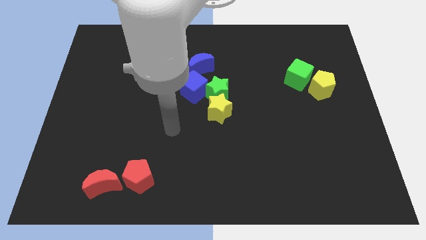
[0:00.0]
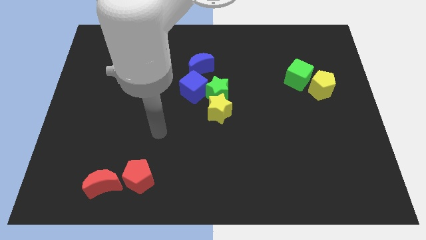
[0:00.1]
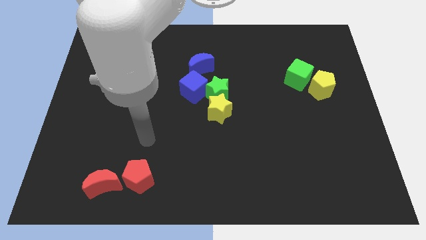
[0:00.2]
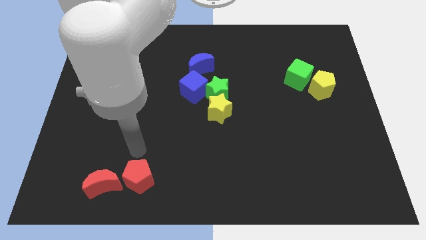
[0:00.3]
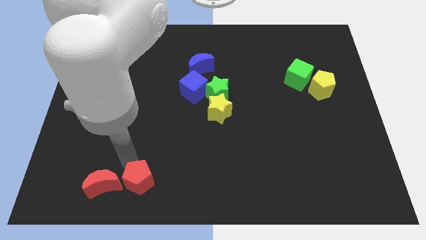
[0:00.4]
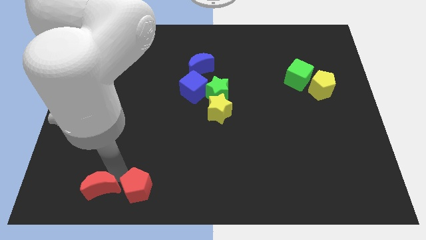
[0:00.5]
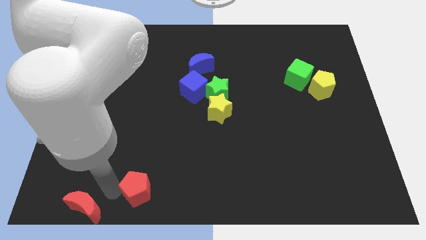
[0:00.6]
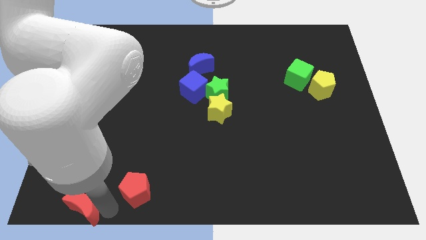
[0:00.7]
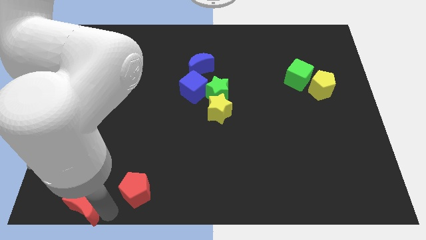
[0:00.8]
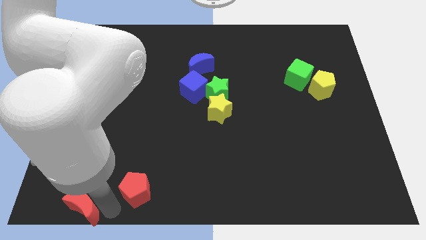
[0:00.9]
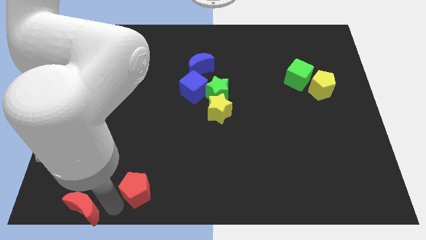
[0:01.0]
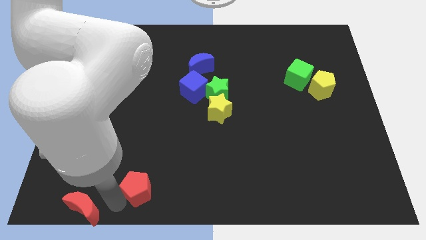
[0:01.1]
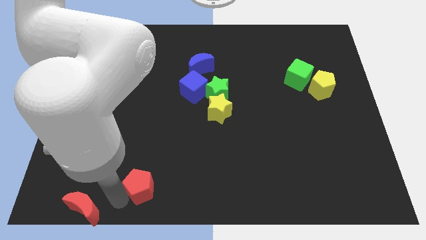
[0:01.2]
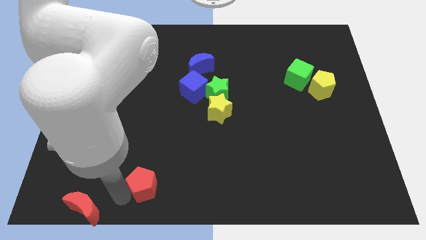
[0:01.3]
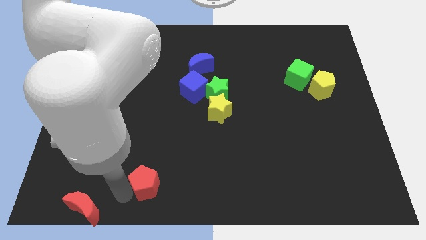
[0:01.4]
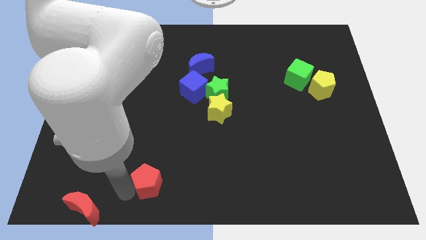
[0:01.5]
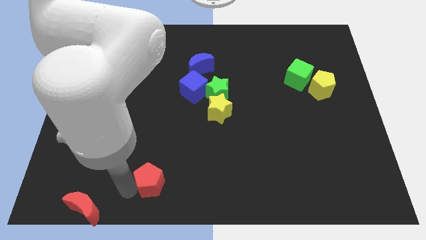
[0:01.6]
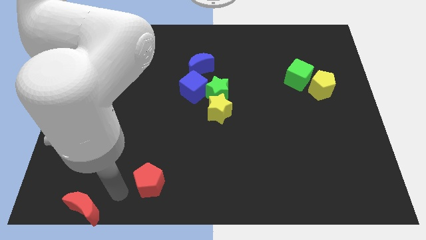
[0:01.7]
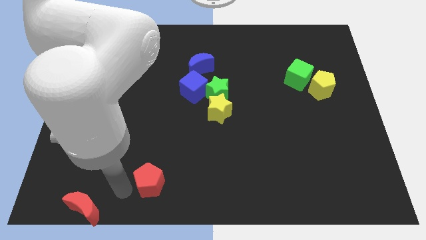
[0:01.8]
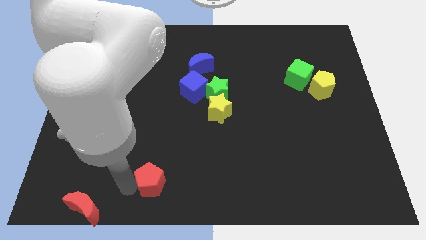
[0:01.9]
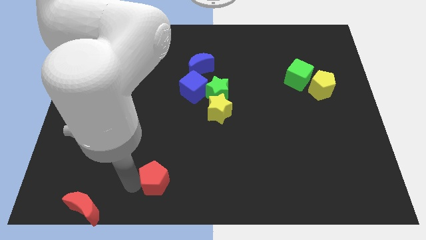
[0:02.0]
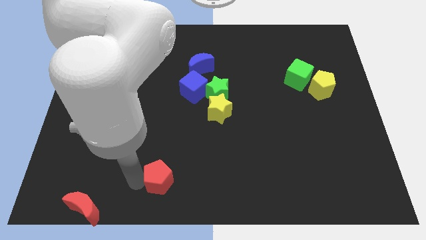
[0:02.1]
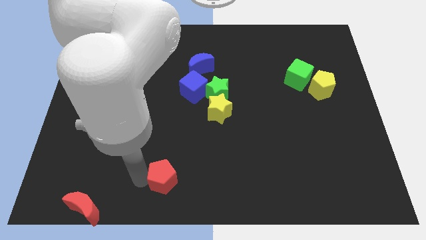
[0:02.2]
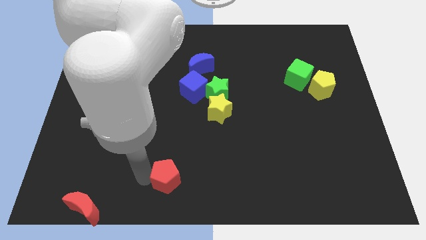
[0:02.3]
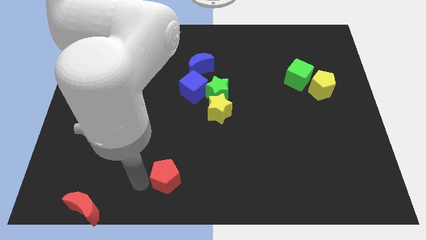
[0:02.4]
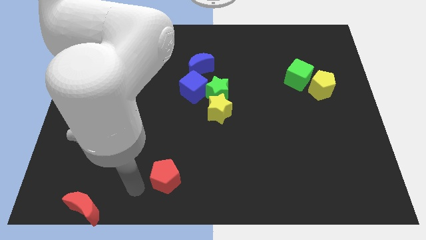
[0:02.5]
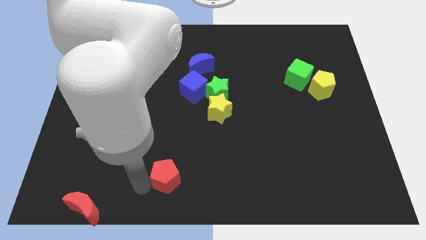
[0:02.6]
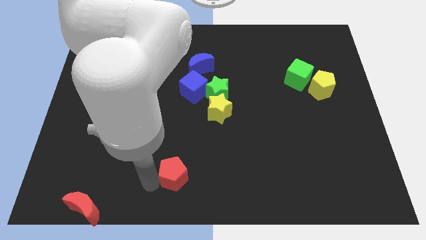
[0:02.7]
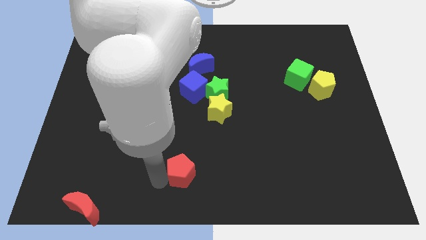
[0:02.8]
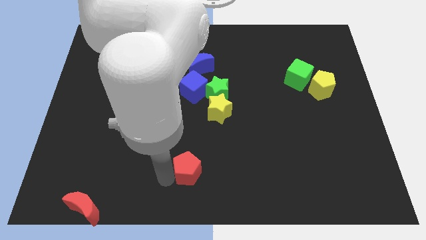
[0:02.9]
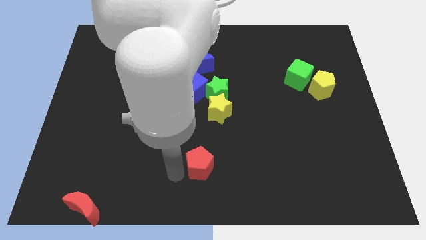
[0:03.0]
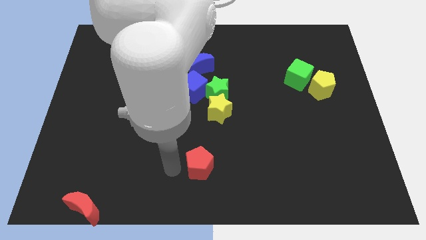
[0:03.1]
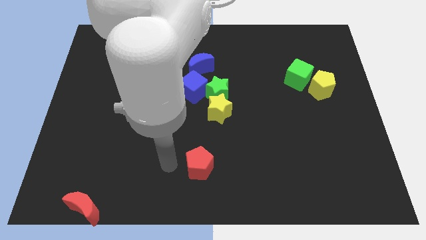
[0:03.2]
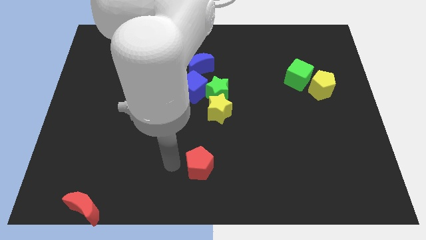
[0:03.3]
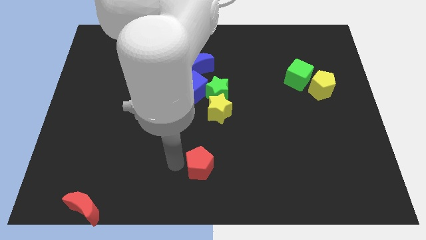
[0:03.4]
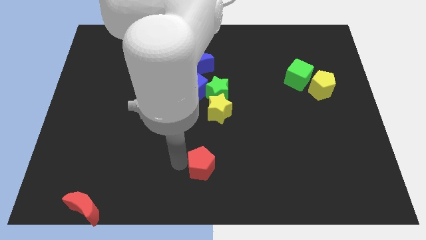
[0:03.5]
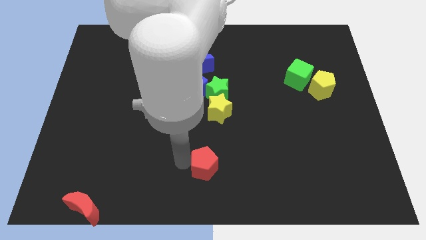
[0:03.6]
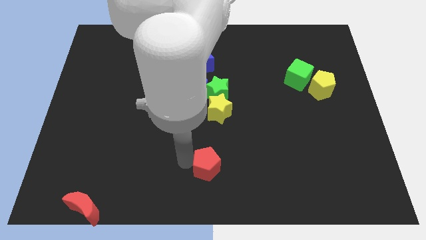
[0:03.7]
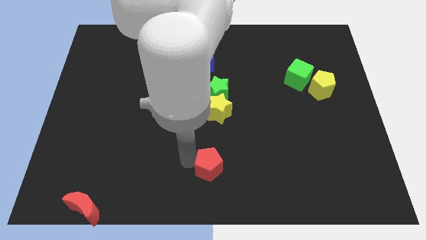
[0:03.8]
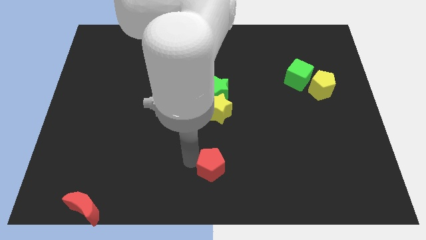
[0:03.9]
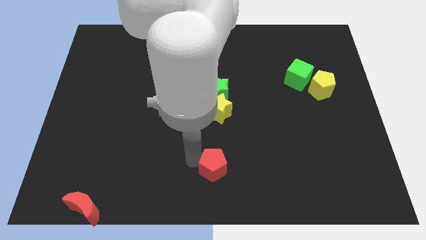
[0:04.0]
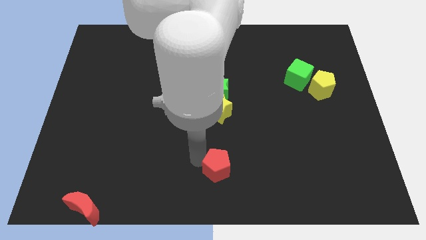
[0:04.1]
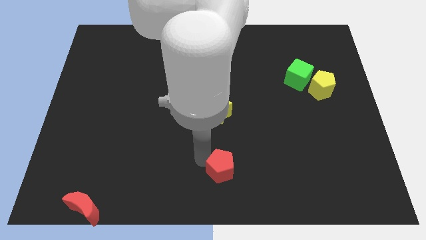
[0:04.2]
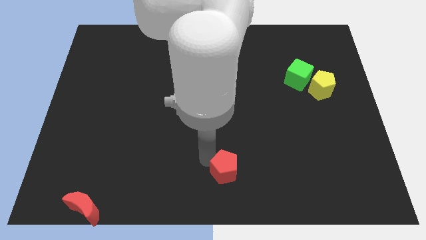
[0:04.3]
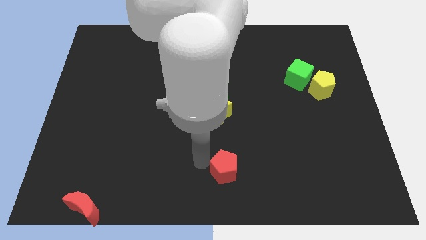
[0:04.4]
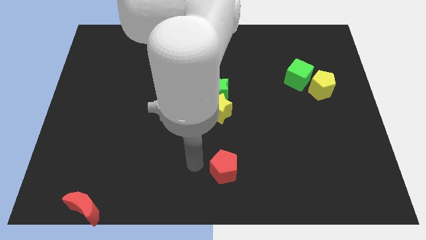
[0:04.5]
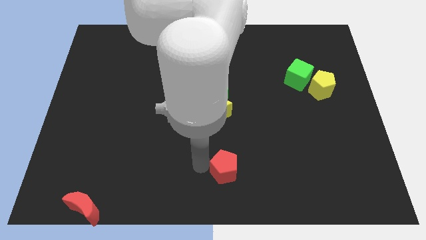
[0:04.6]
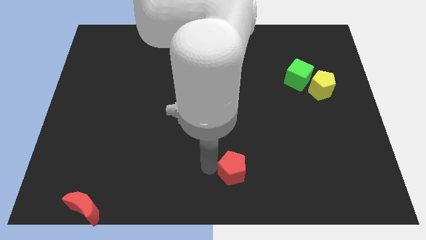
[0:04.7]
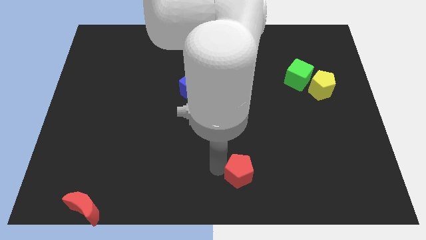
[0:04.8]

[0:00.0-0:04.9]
slide the red pentagon right

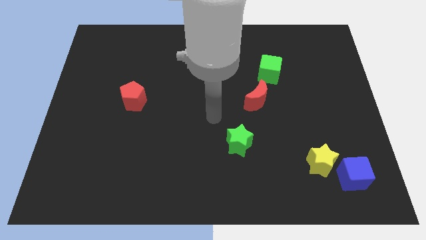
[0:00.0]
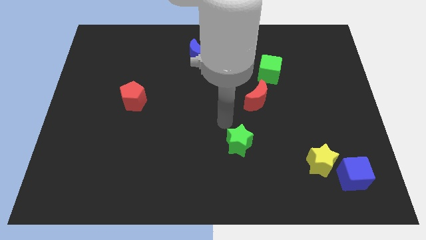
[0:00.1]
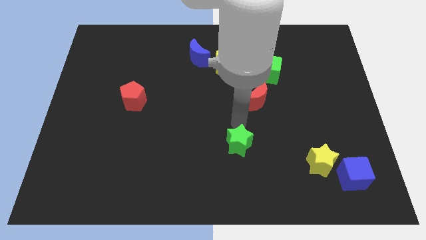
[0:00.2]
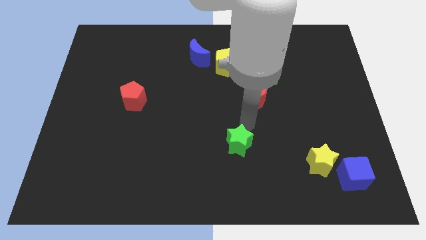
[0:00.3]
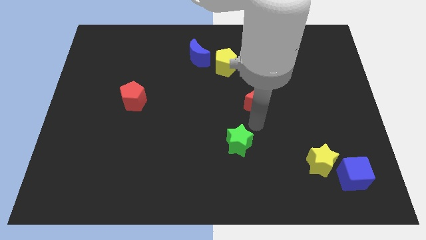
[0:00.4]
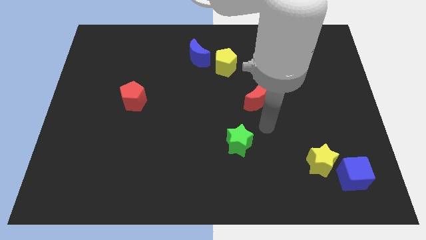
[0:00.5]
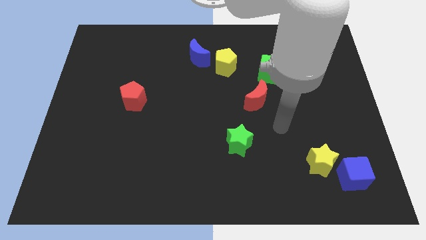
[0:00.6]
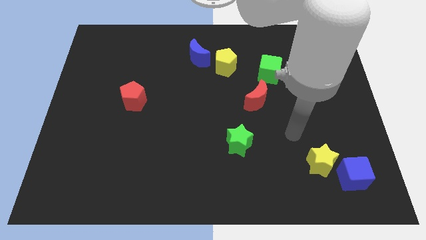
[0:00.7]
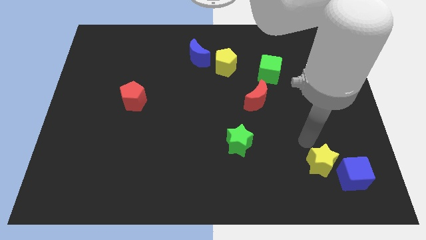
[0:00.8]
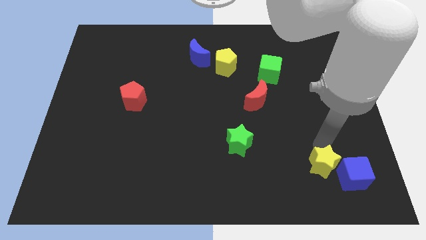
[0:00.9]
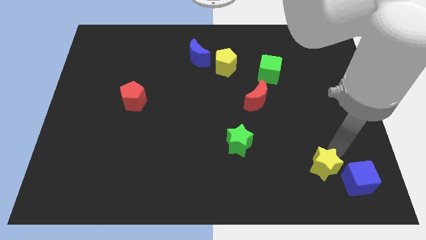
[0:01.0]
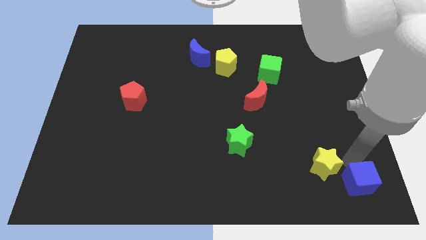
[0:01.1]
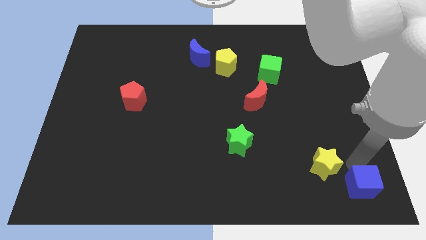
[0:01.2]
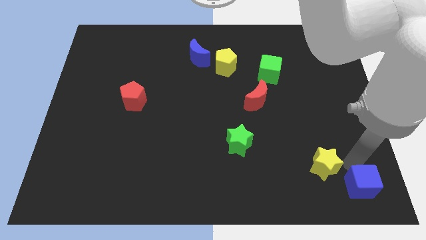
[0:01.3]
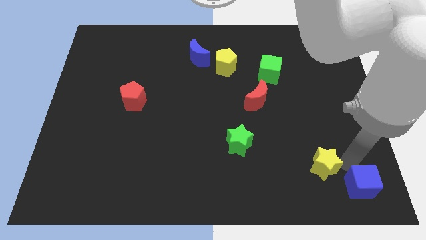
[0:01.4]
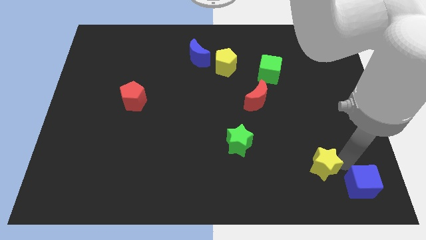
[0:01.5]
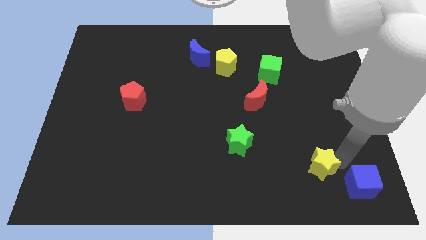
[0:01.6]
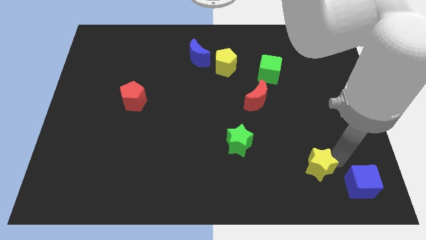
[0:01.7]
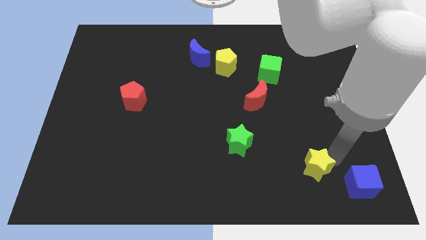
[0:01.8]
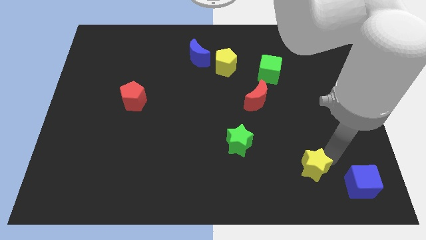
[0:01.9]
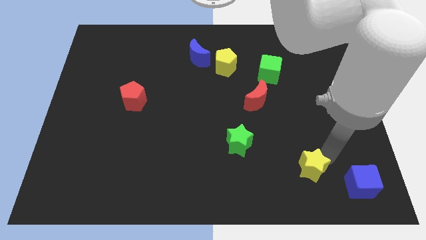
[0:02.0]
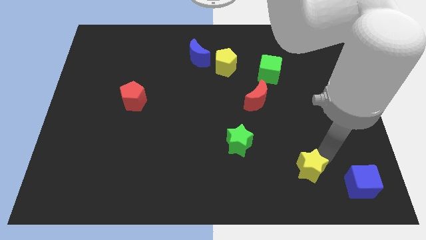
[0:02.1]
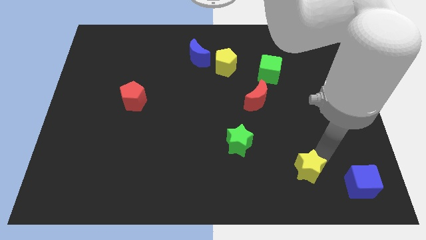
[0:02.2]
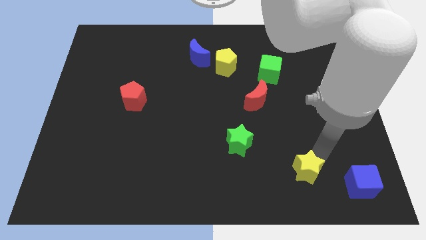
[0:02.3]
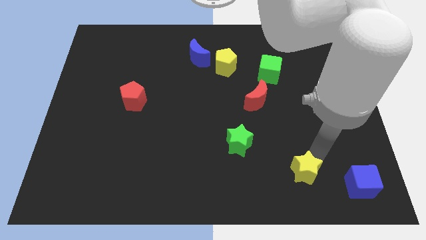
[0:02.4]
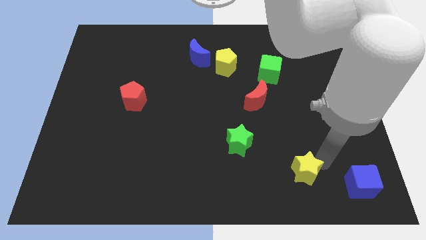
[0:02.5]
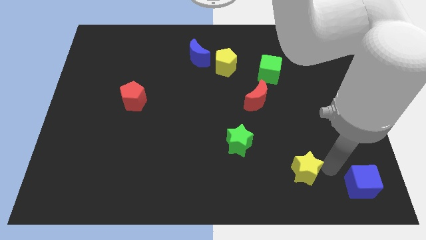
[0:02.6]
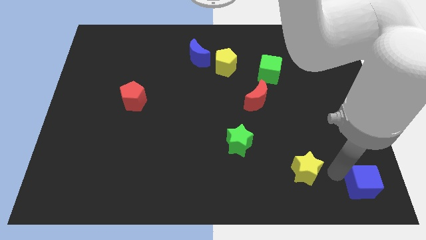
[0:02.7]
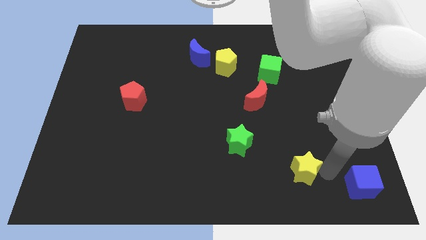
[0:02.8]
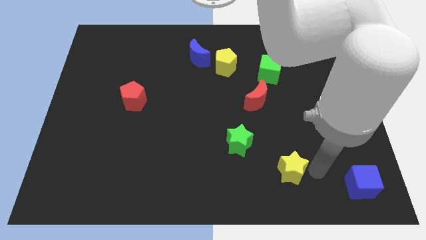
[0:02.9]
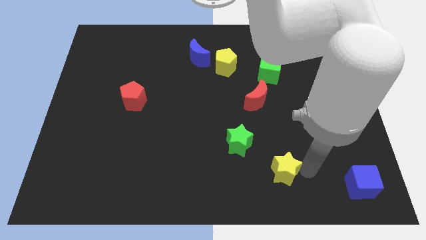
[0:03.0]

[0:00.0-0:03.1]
slightly slide the yellow star to the left
